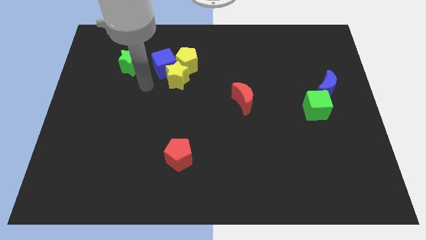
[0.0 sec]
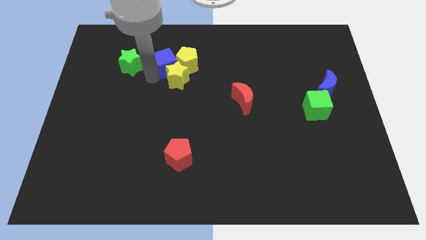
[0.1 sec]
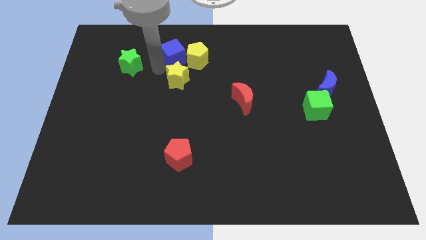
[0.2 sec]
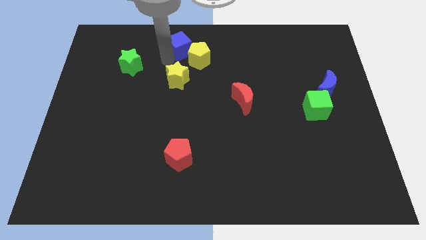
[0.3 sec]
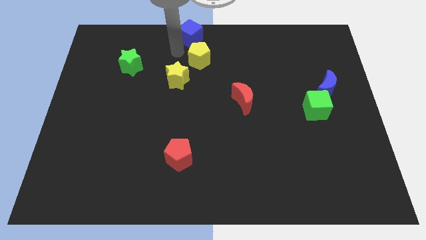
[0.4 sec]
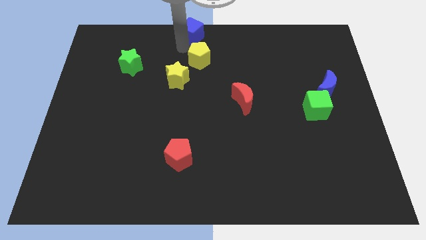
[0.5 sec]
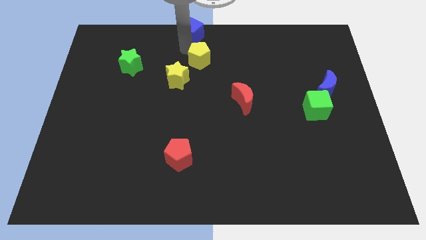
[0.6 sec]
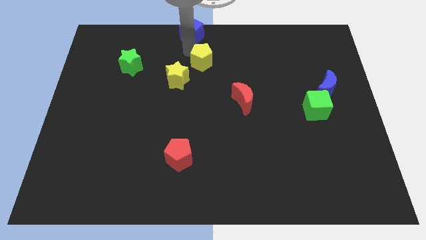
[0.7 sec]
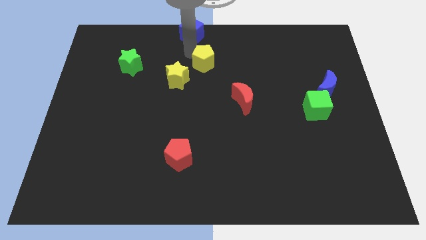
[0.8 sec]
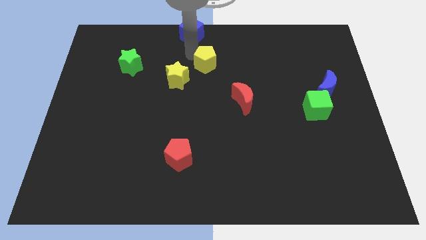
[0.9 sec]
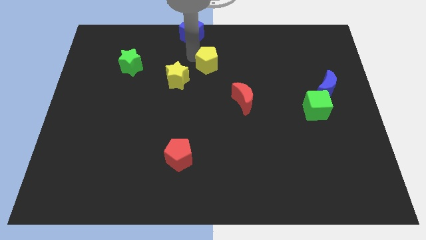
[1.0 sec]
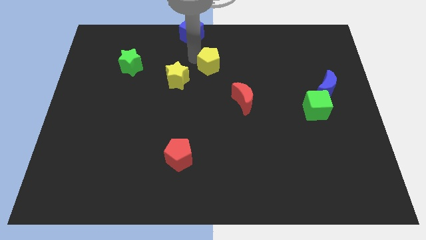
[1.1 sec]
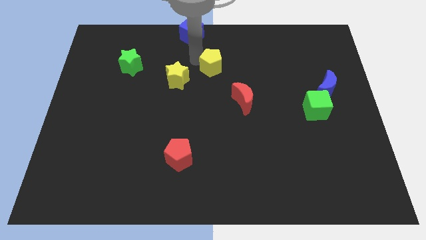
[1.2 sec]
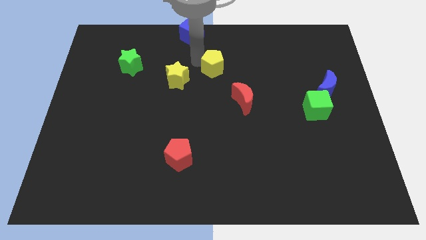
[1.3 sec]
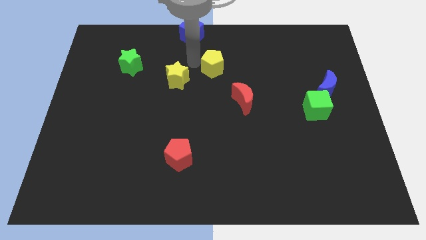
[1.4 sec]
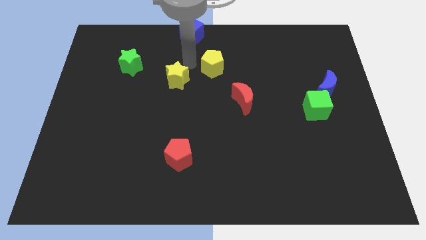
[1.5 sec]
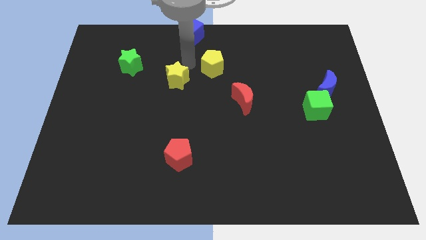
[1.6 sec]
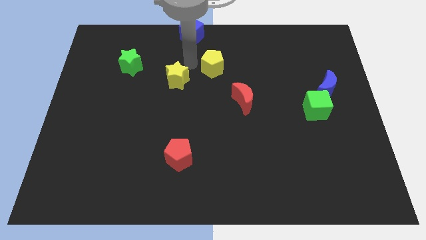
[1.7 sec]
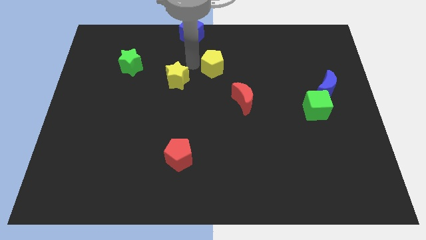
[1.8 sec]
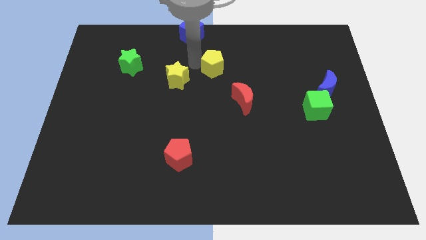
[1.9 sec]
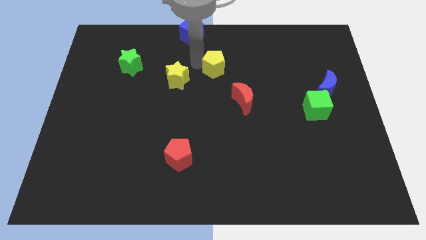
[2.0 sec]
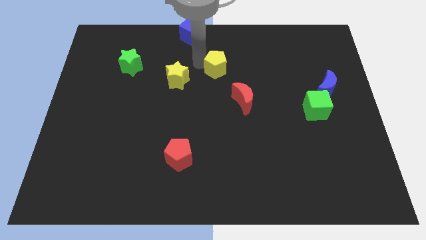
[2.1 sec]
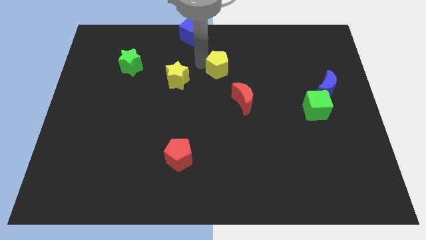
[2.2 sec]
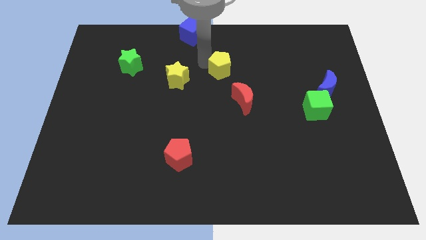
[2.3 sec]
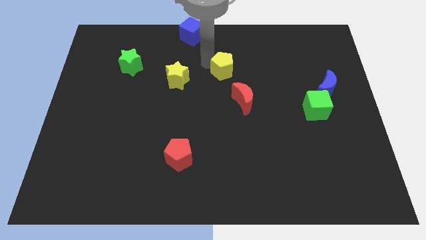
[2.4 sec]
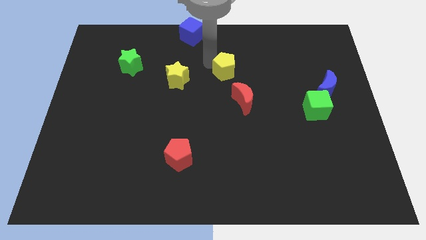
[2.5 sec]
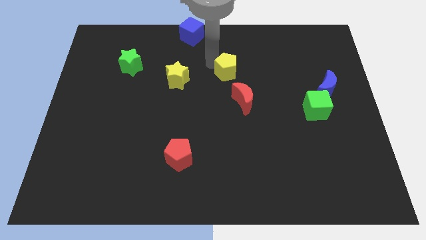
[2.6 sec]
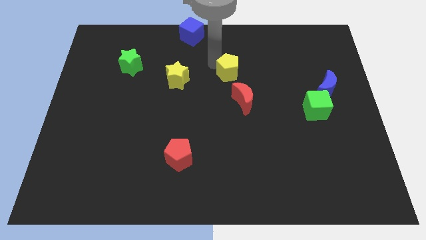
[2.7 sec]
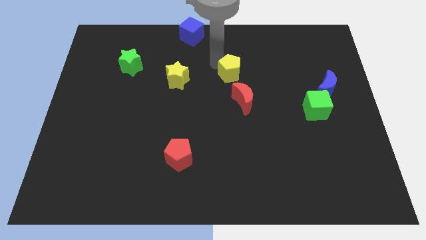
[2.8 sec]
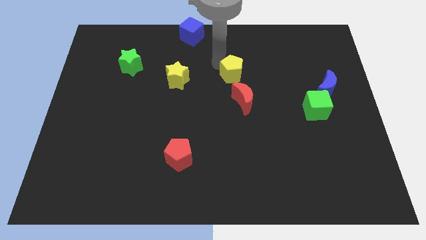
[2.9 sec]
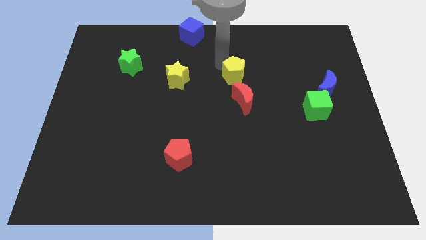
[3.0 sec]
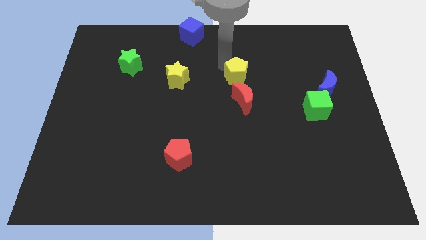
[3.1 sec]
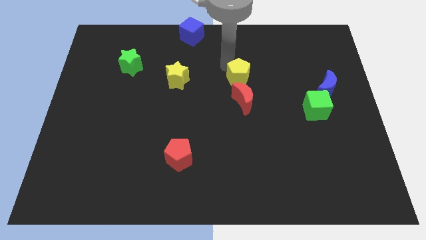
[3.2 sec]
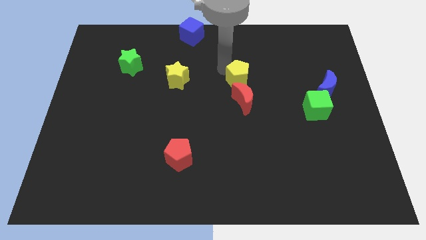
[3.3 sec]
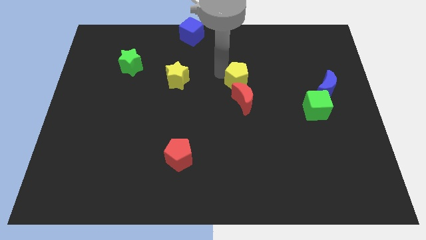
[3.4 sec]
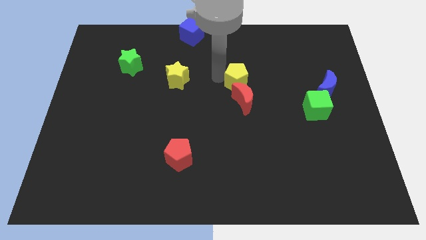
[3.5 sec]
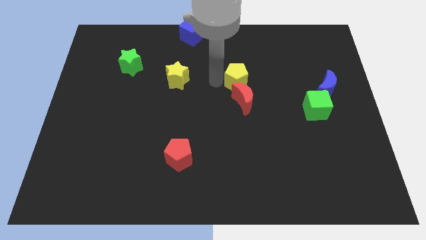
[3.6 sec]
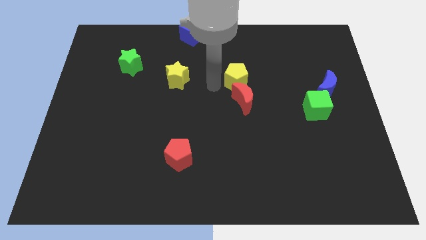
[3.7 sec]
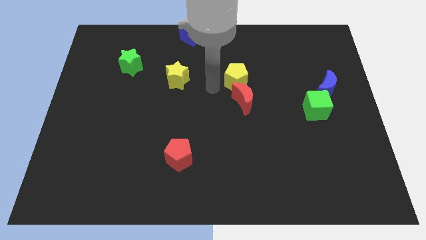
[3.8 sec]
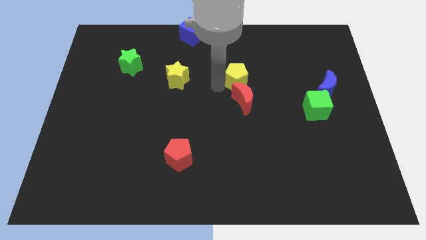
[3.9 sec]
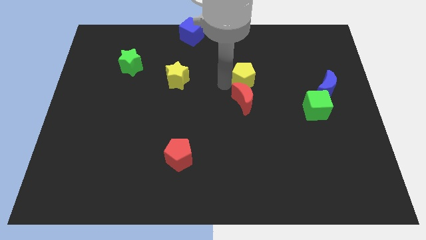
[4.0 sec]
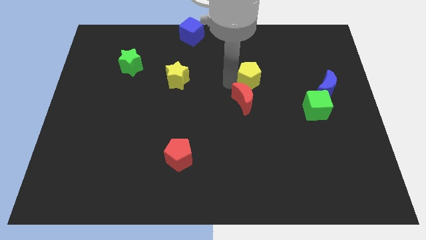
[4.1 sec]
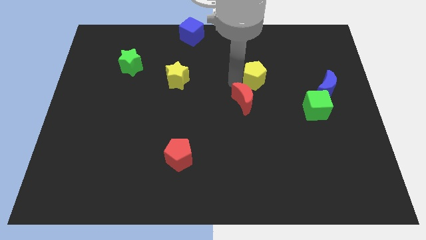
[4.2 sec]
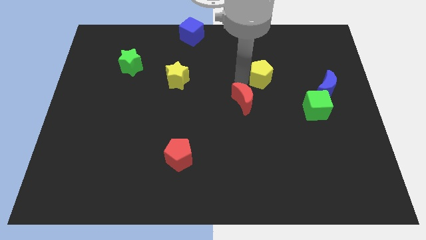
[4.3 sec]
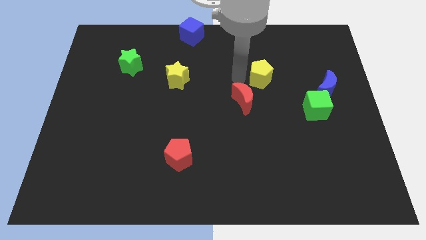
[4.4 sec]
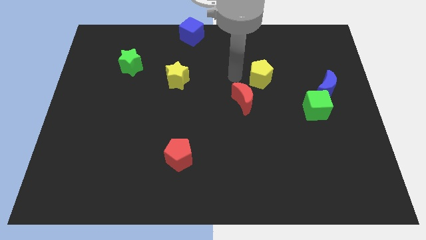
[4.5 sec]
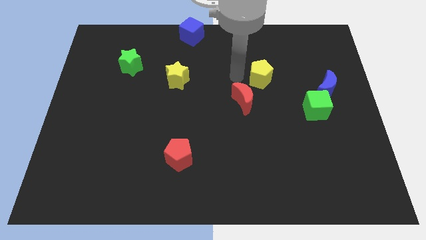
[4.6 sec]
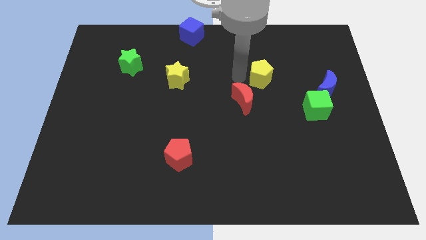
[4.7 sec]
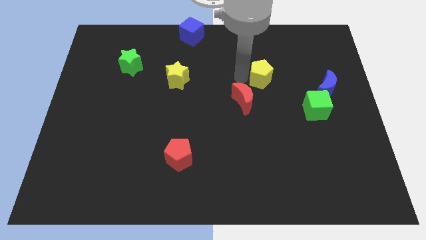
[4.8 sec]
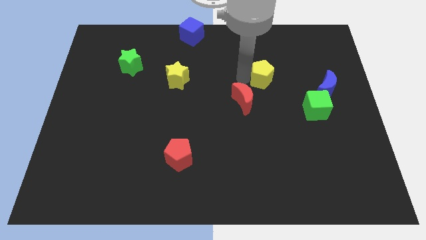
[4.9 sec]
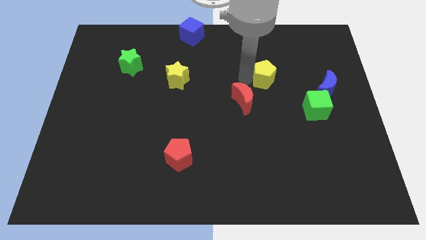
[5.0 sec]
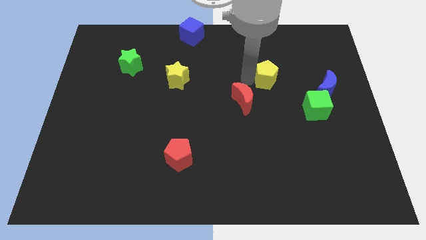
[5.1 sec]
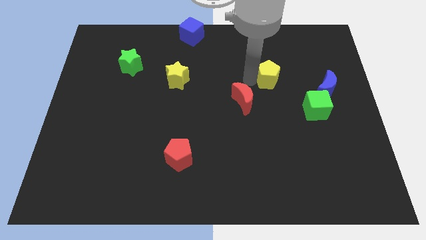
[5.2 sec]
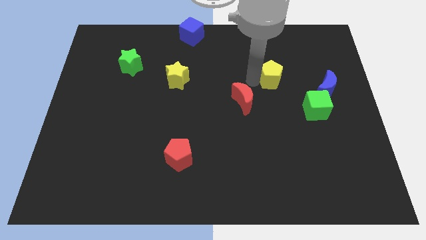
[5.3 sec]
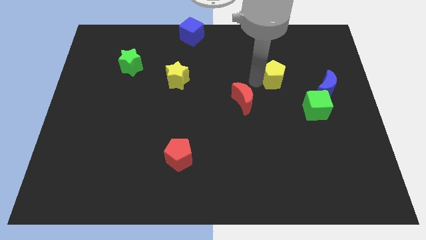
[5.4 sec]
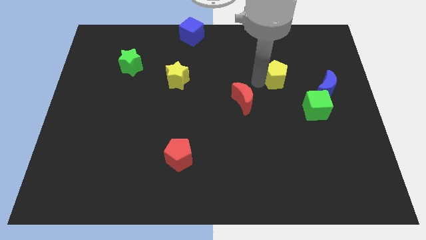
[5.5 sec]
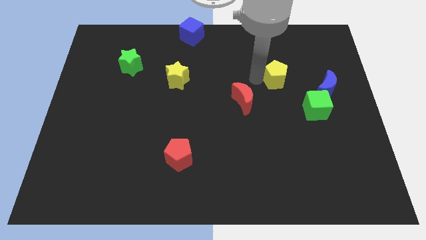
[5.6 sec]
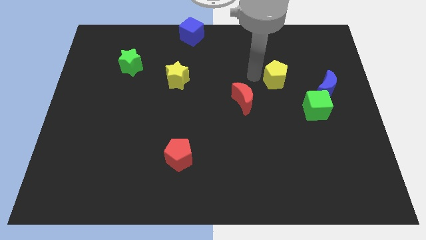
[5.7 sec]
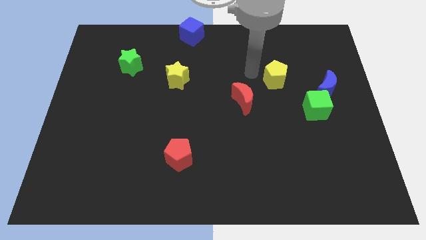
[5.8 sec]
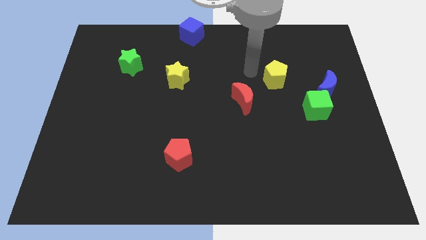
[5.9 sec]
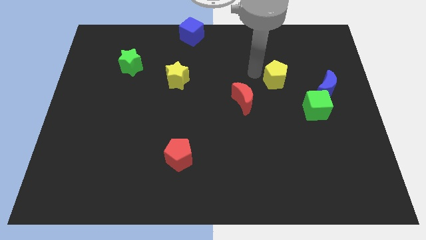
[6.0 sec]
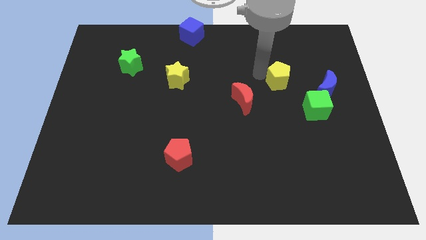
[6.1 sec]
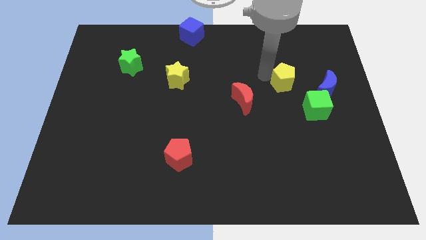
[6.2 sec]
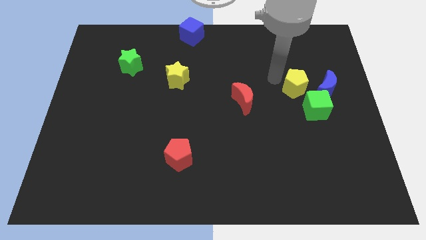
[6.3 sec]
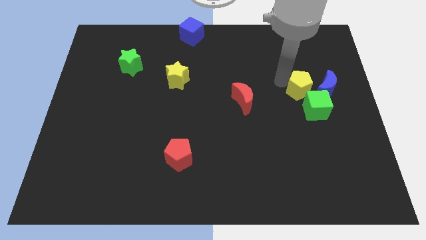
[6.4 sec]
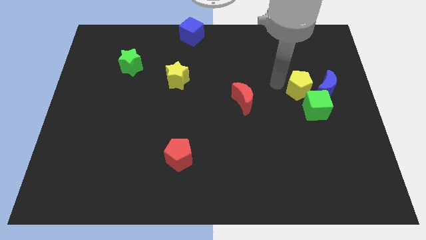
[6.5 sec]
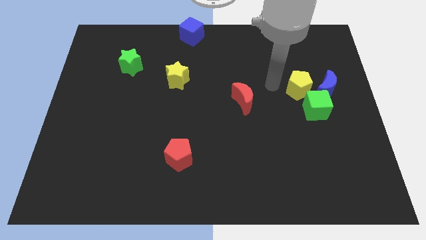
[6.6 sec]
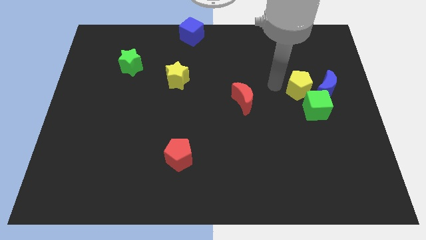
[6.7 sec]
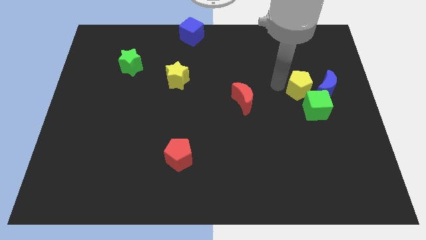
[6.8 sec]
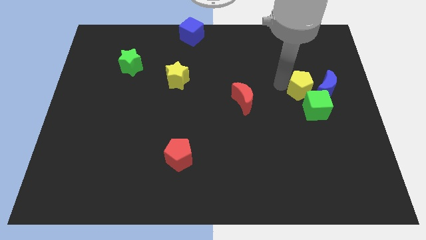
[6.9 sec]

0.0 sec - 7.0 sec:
put the yellow pentagon next to the blue moon
